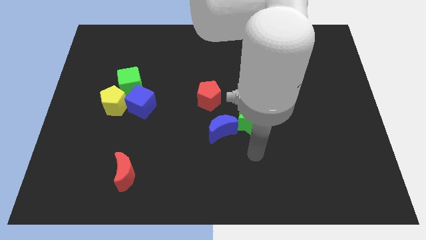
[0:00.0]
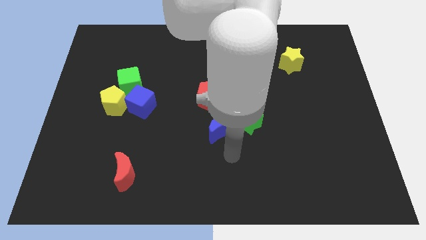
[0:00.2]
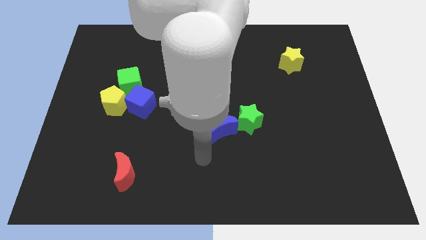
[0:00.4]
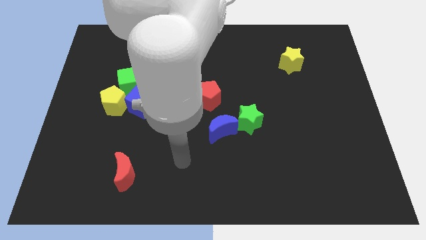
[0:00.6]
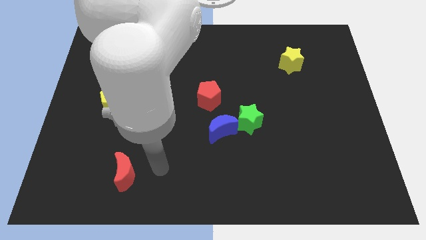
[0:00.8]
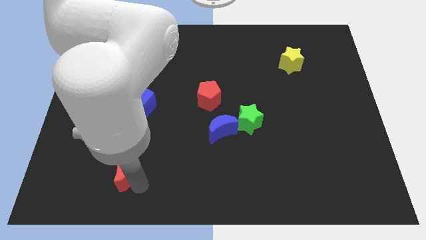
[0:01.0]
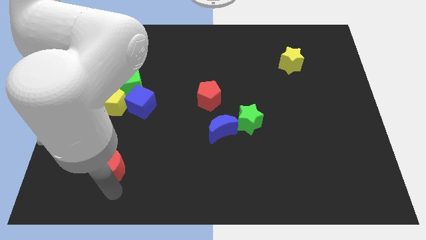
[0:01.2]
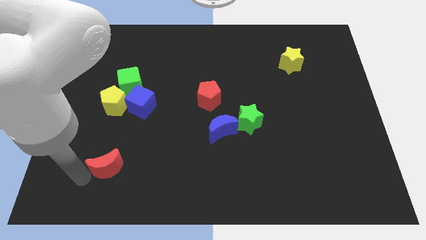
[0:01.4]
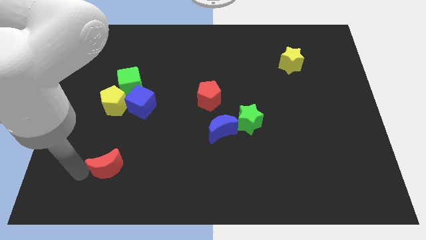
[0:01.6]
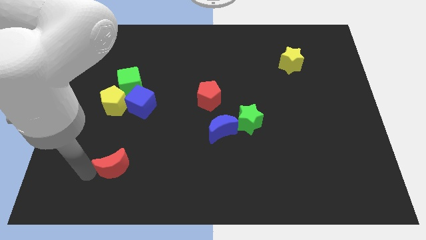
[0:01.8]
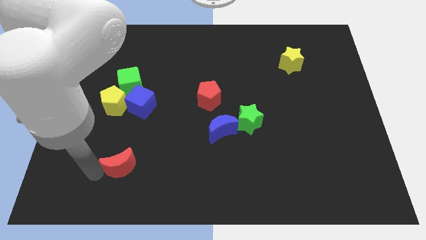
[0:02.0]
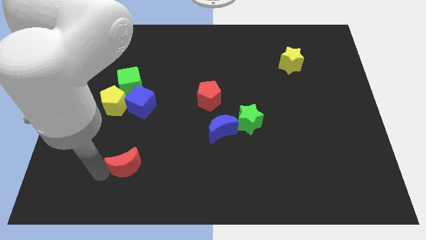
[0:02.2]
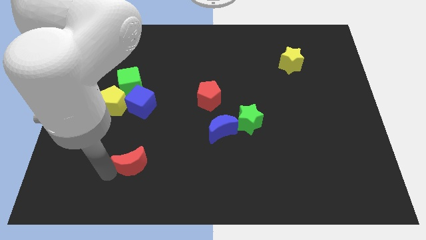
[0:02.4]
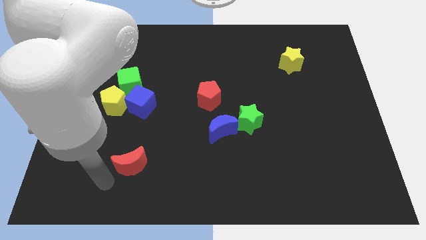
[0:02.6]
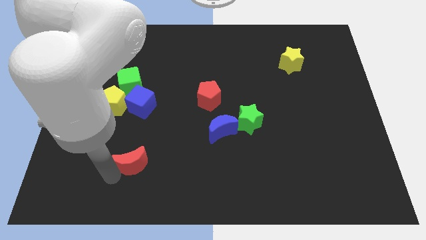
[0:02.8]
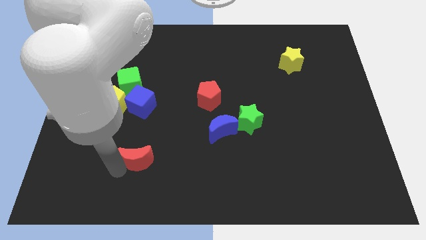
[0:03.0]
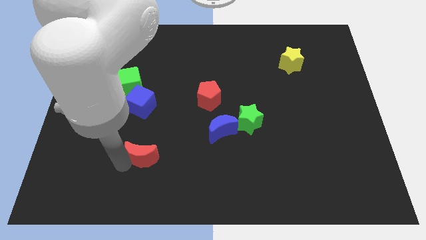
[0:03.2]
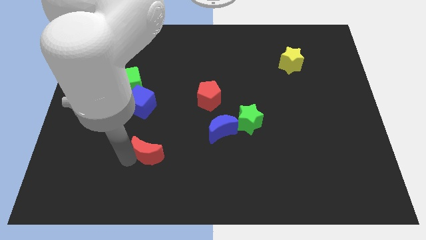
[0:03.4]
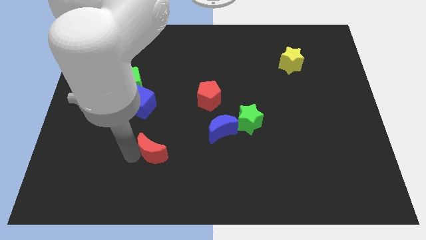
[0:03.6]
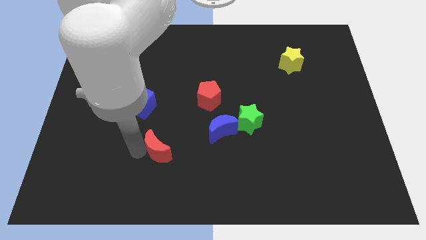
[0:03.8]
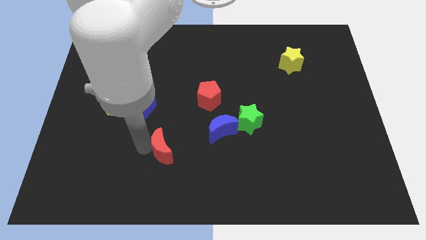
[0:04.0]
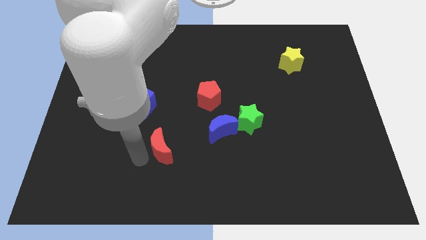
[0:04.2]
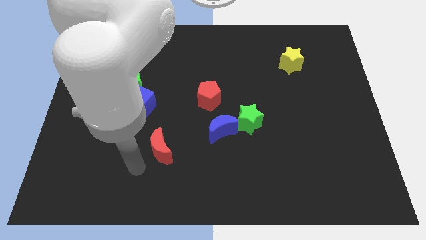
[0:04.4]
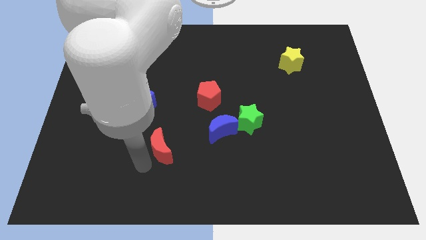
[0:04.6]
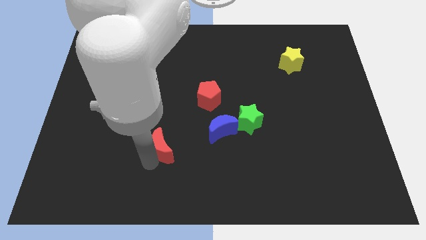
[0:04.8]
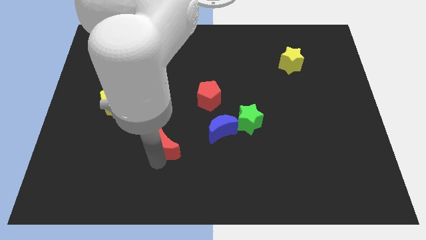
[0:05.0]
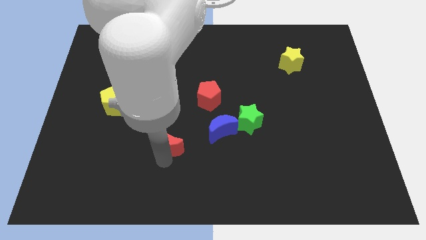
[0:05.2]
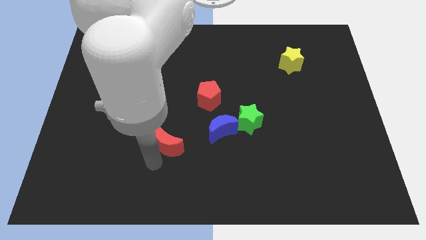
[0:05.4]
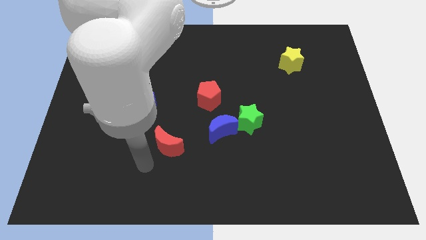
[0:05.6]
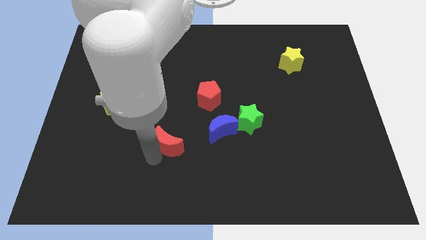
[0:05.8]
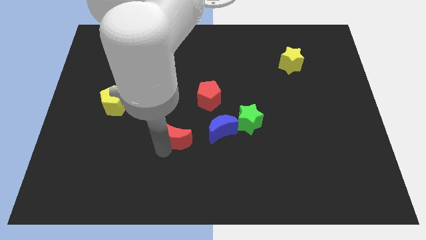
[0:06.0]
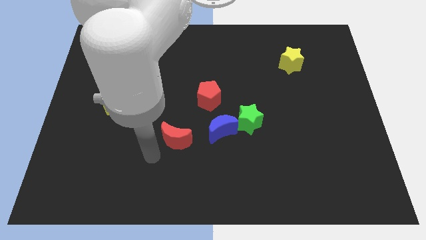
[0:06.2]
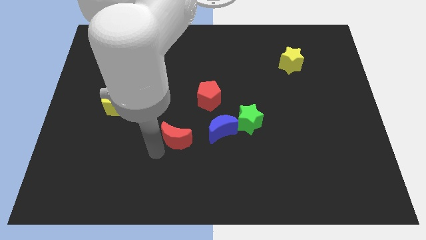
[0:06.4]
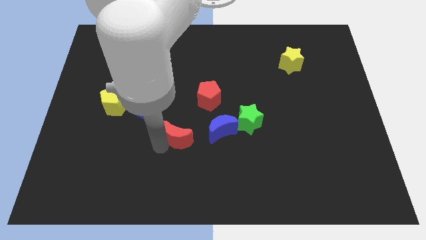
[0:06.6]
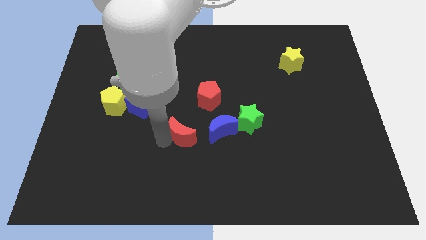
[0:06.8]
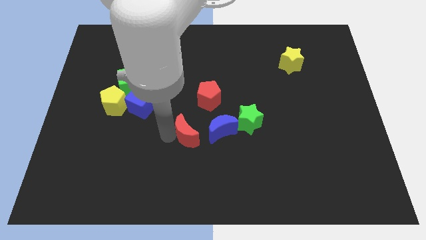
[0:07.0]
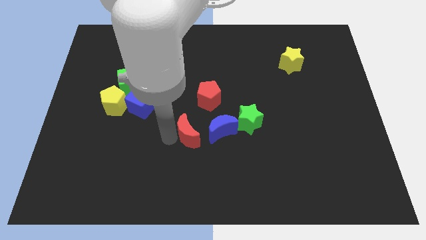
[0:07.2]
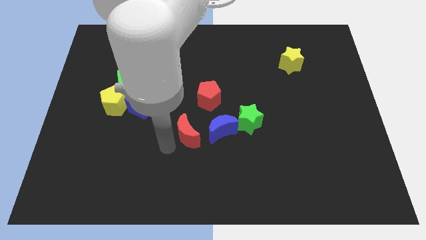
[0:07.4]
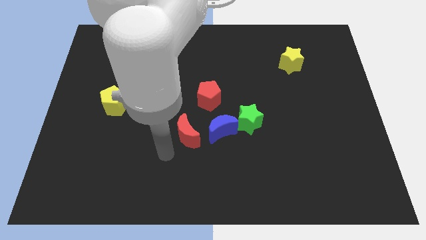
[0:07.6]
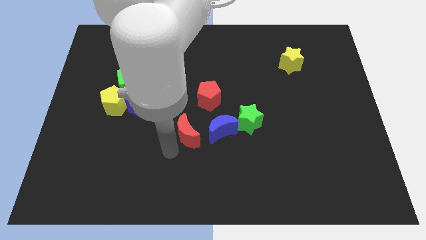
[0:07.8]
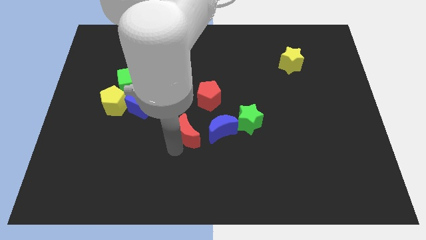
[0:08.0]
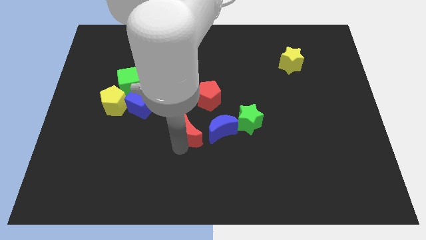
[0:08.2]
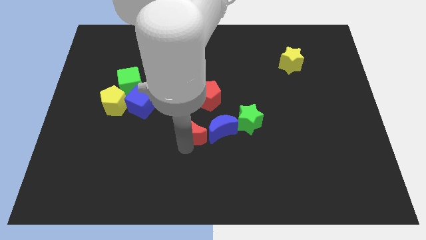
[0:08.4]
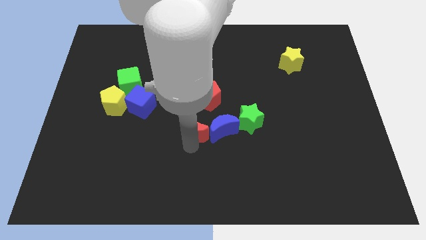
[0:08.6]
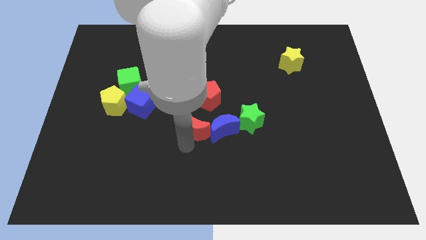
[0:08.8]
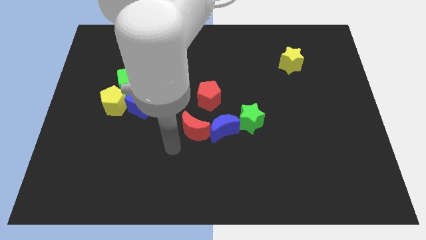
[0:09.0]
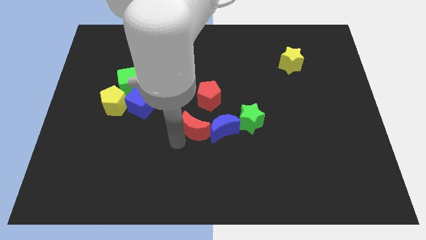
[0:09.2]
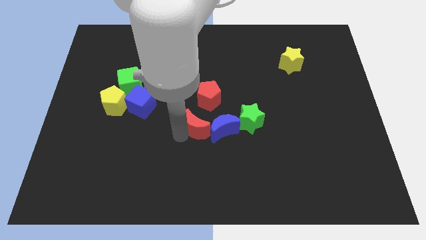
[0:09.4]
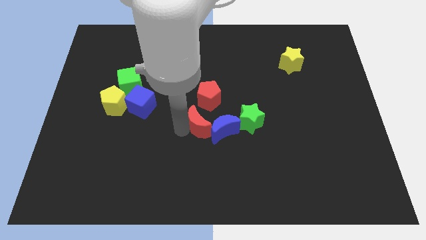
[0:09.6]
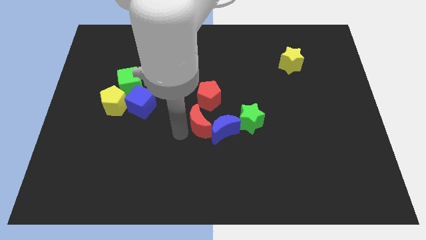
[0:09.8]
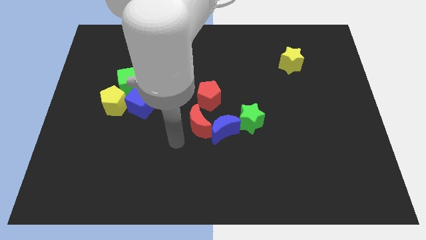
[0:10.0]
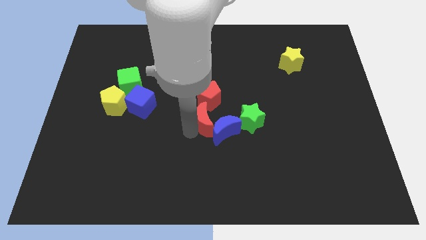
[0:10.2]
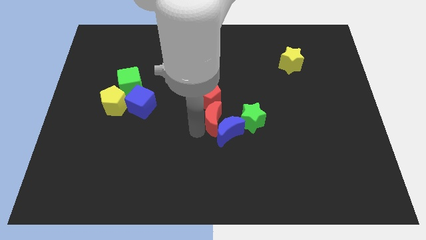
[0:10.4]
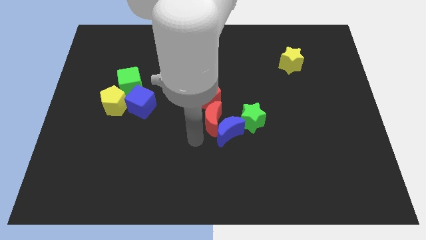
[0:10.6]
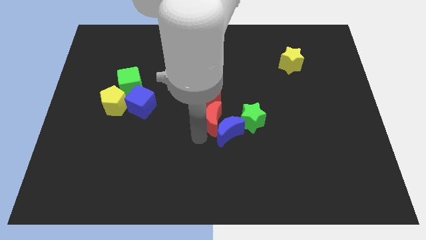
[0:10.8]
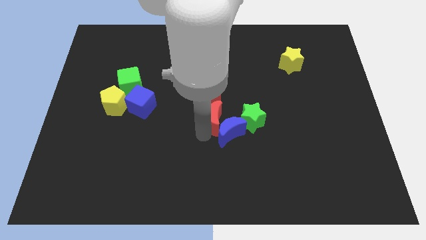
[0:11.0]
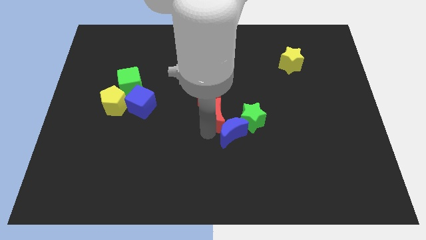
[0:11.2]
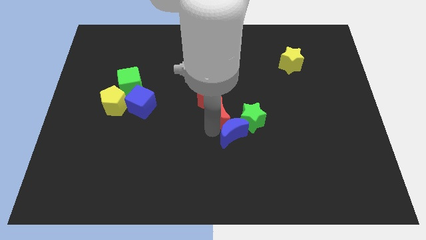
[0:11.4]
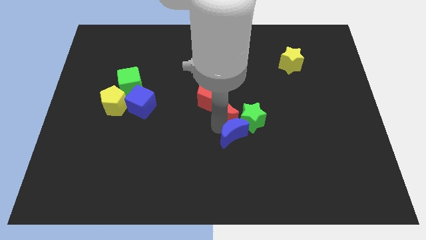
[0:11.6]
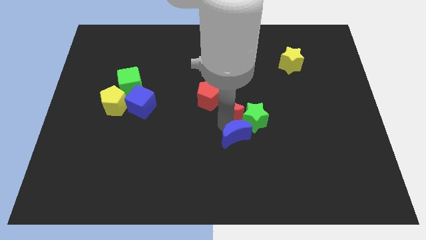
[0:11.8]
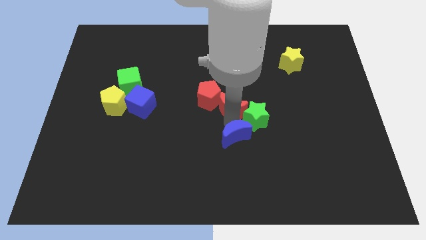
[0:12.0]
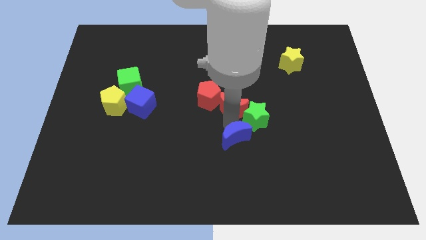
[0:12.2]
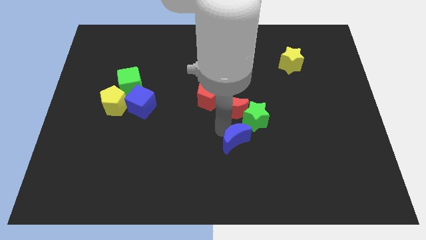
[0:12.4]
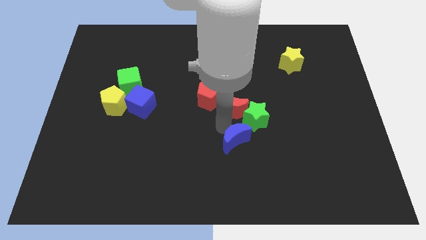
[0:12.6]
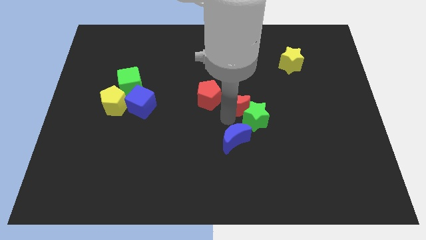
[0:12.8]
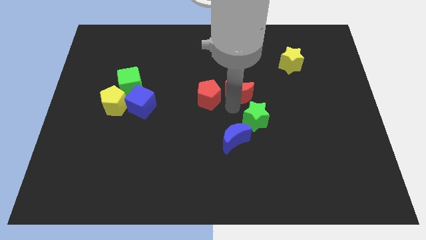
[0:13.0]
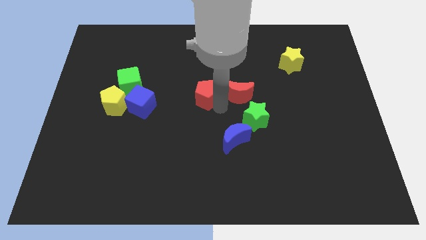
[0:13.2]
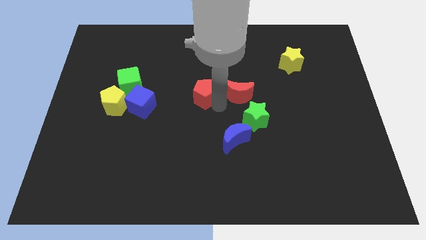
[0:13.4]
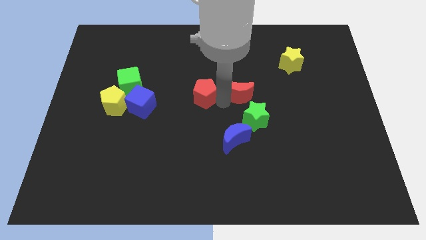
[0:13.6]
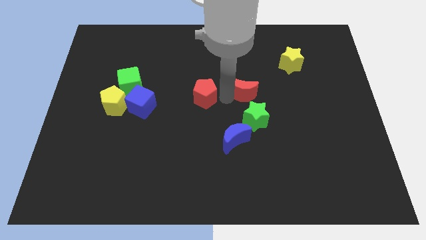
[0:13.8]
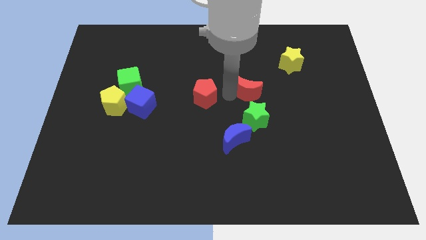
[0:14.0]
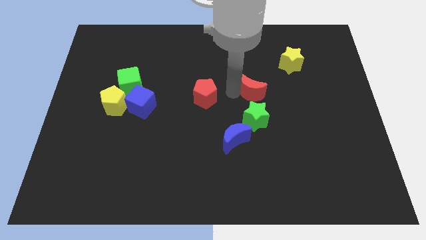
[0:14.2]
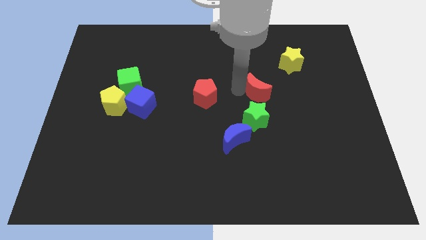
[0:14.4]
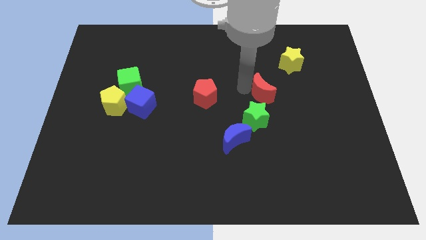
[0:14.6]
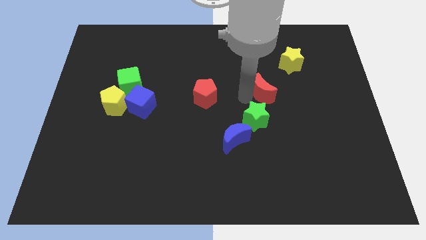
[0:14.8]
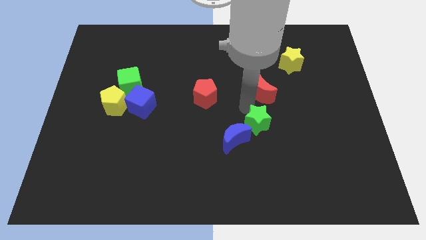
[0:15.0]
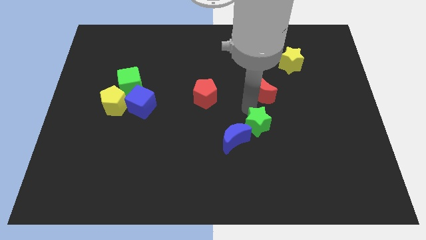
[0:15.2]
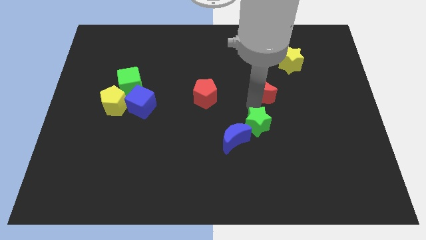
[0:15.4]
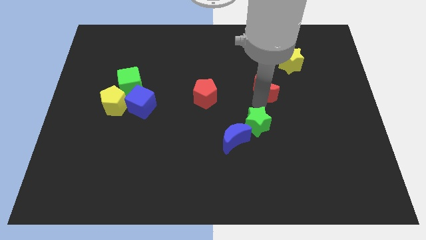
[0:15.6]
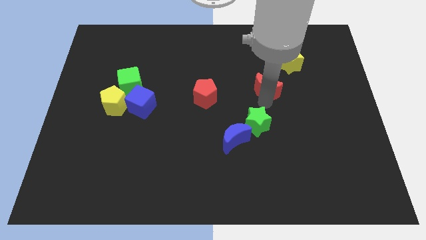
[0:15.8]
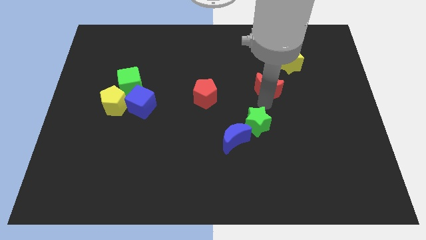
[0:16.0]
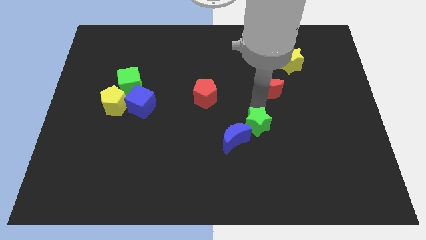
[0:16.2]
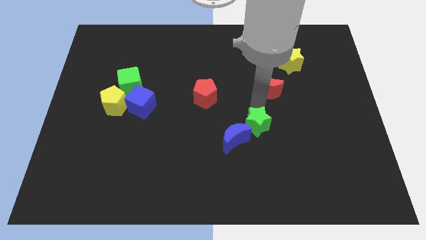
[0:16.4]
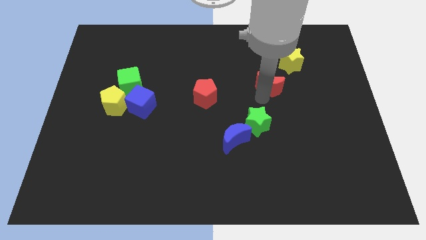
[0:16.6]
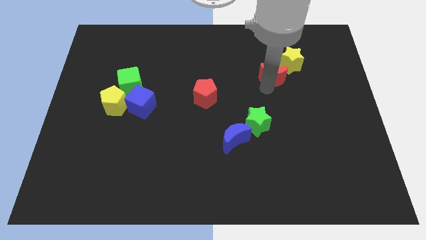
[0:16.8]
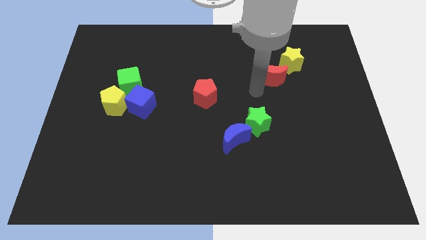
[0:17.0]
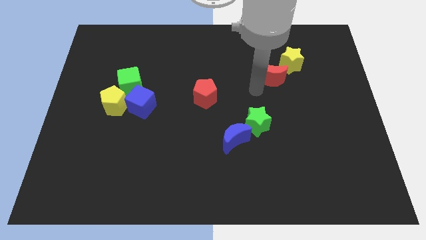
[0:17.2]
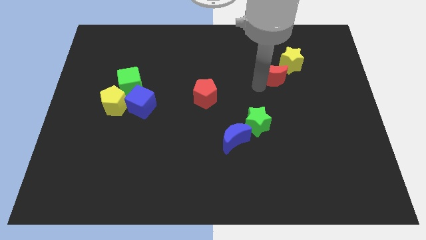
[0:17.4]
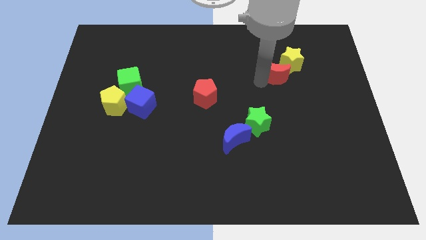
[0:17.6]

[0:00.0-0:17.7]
slide the red moon next to the yellow star
